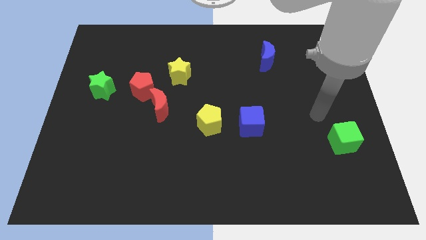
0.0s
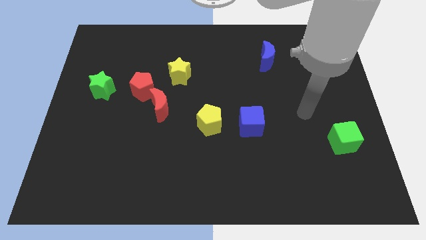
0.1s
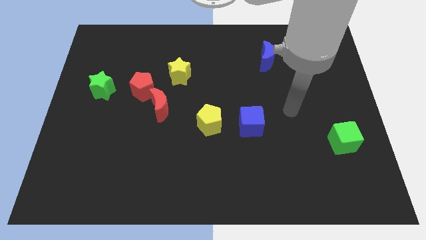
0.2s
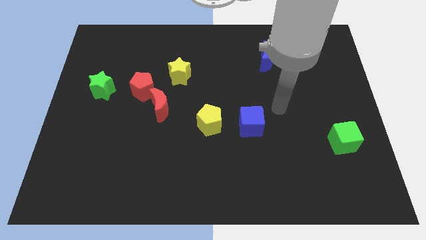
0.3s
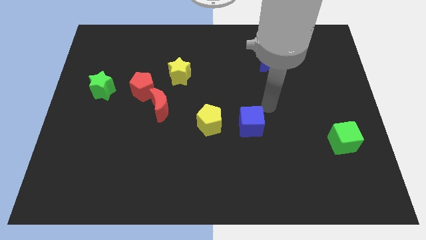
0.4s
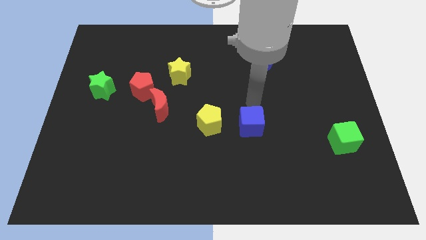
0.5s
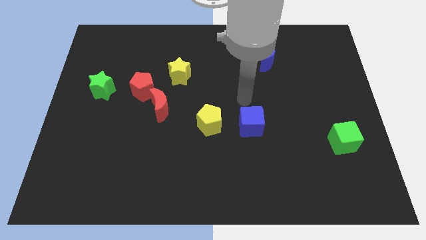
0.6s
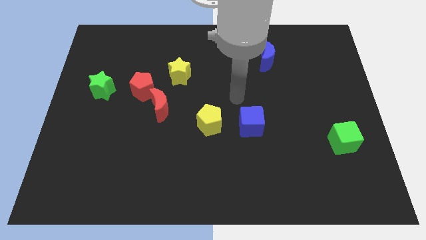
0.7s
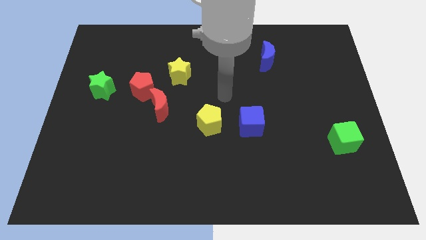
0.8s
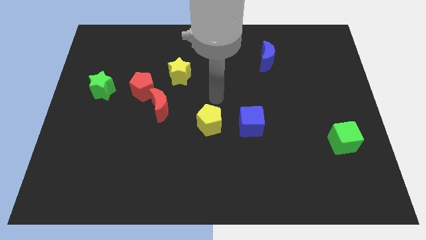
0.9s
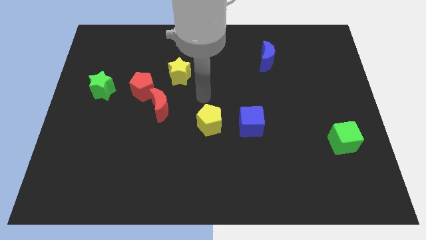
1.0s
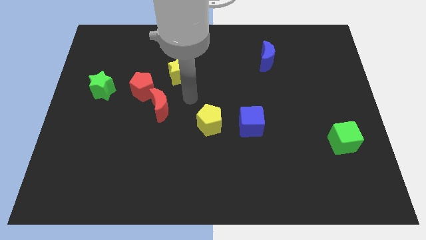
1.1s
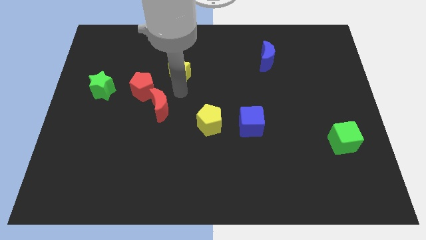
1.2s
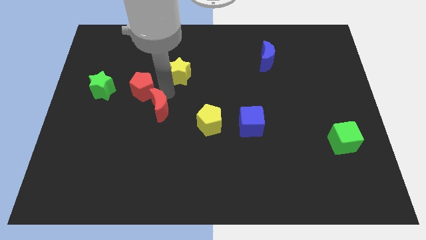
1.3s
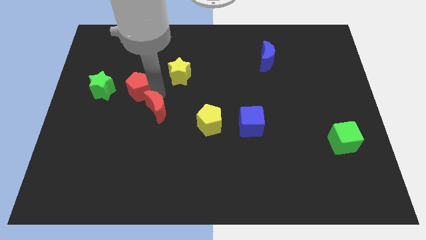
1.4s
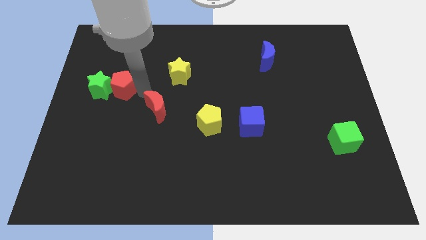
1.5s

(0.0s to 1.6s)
pull the red moon apart from the red pentagon

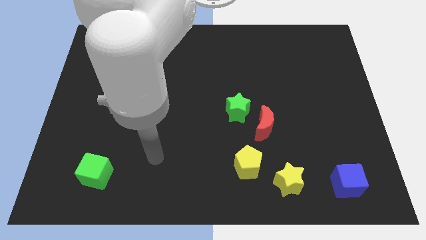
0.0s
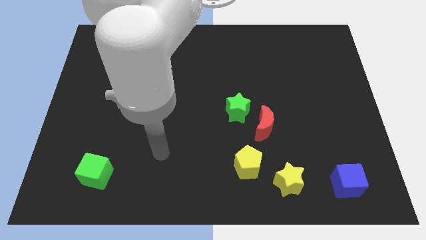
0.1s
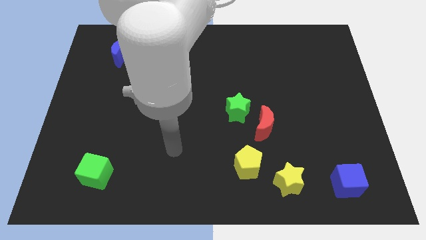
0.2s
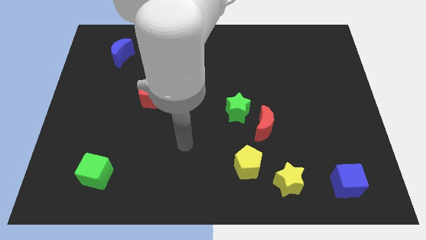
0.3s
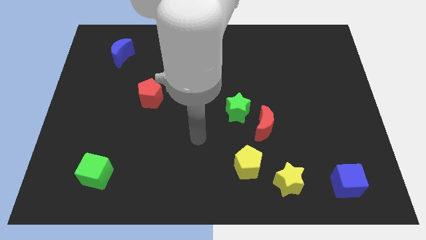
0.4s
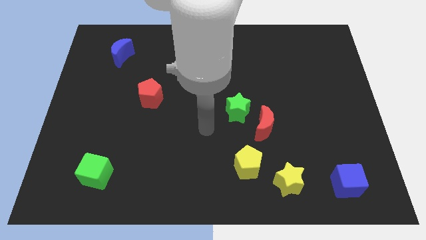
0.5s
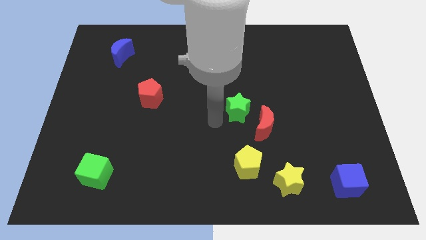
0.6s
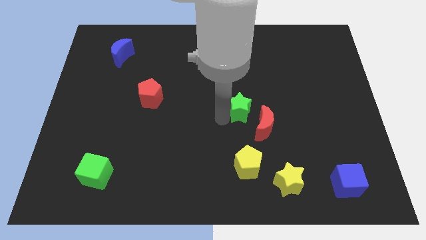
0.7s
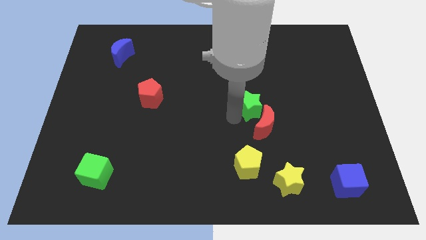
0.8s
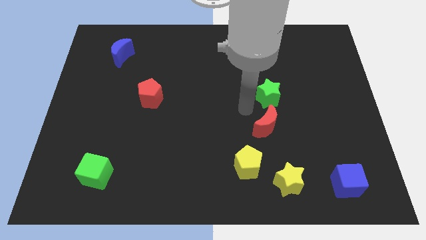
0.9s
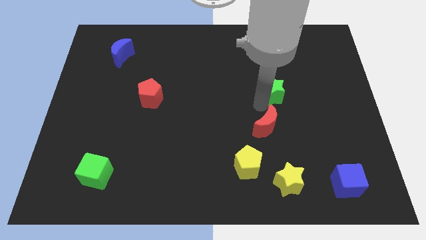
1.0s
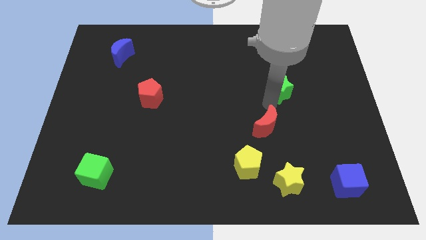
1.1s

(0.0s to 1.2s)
move the red moon away from the green star

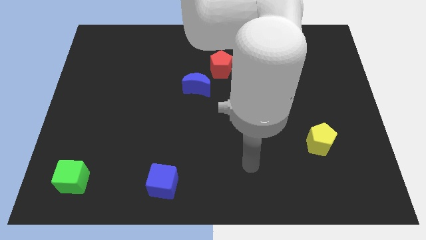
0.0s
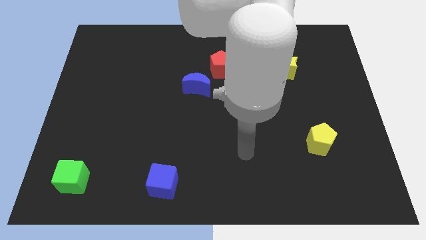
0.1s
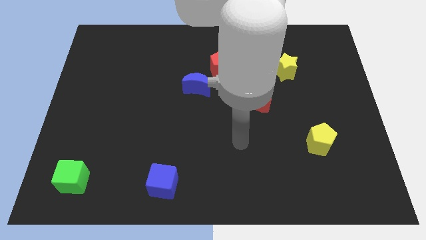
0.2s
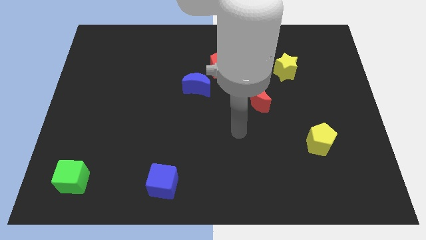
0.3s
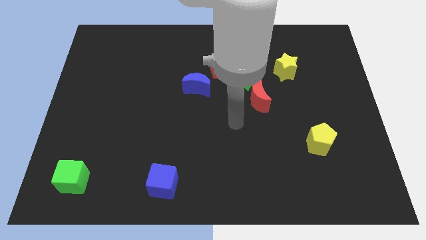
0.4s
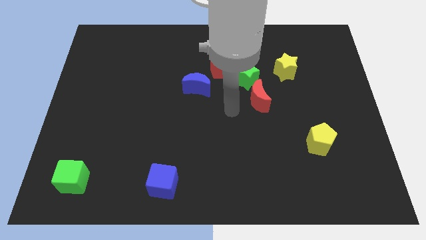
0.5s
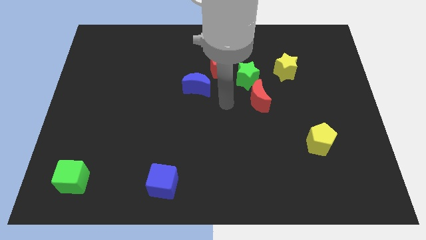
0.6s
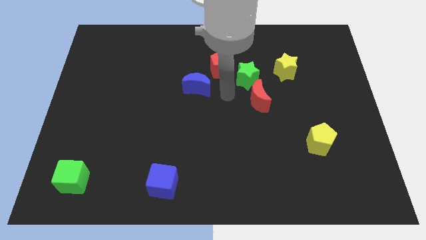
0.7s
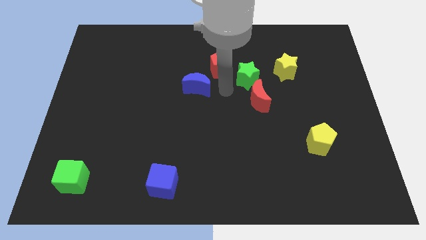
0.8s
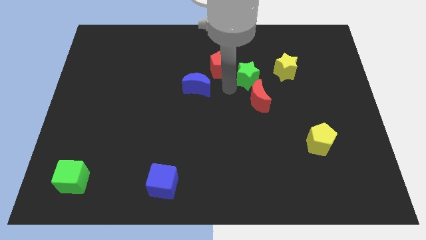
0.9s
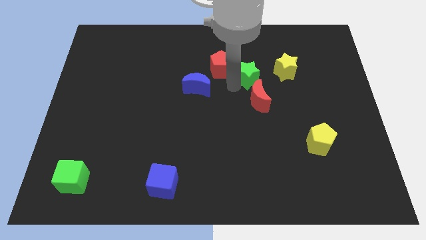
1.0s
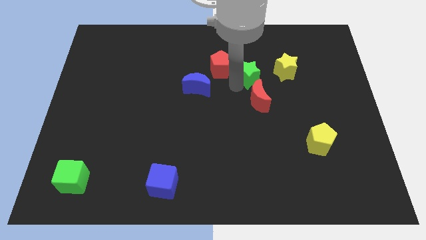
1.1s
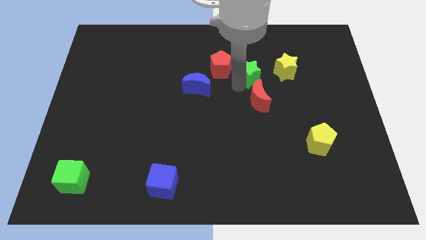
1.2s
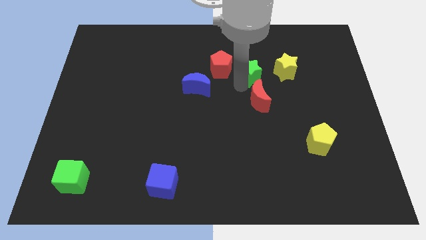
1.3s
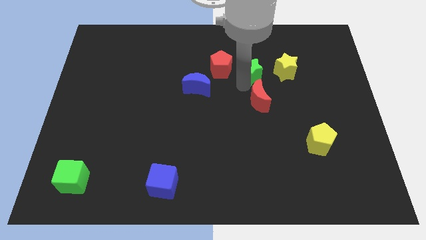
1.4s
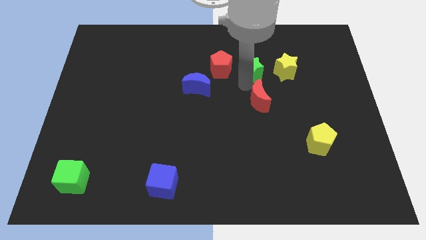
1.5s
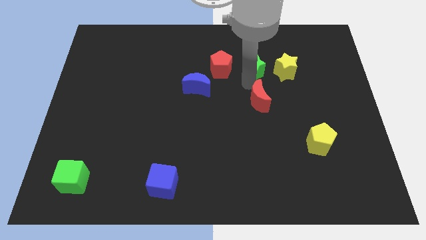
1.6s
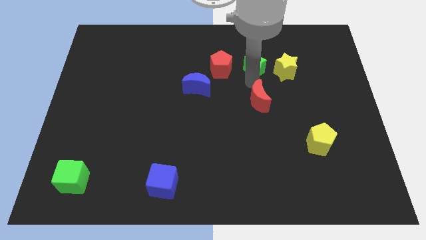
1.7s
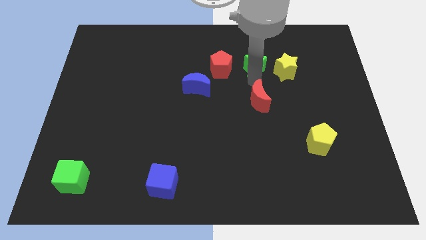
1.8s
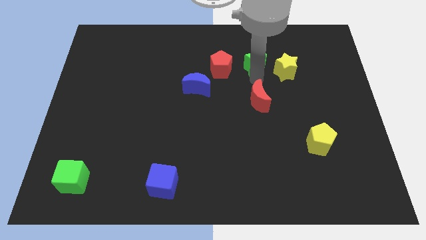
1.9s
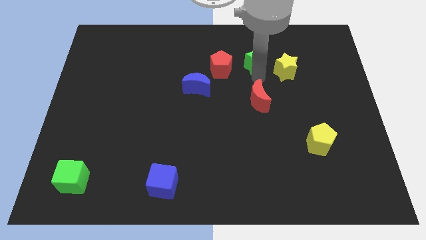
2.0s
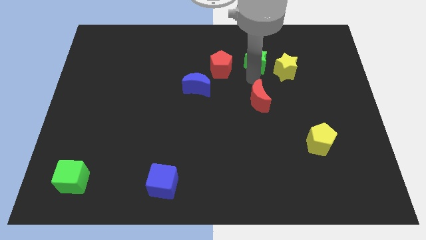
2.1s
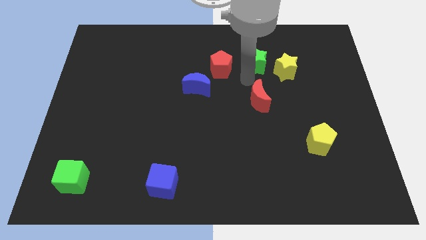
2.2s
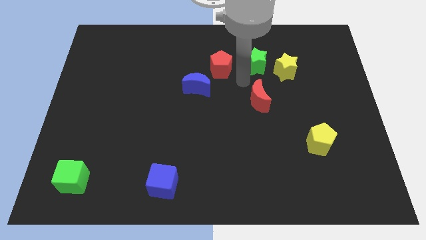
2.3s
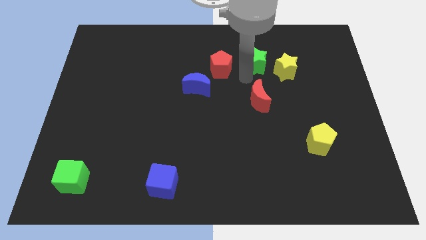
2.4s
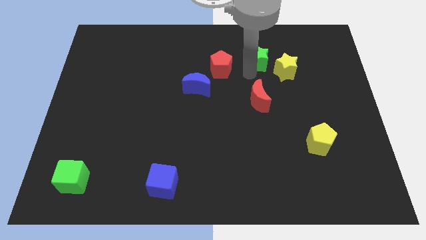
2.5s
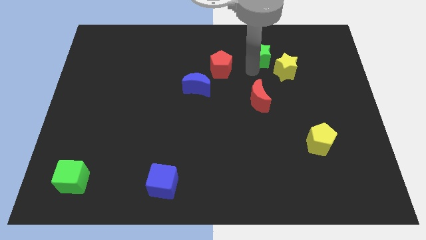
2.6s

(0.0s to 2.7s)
pull the green star apart from the red pentagon and red moon

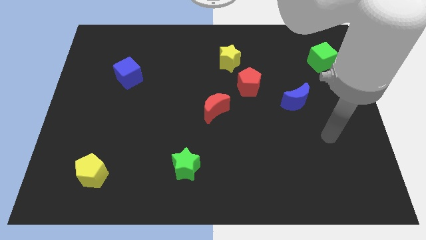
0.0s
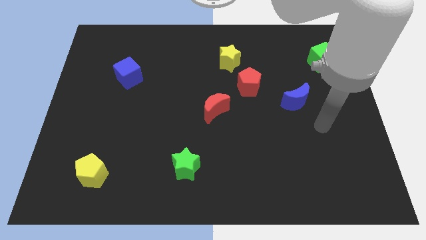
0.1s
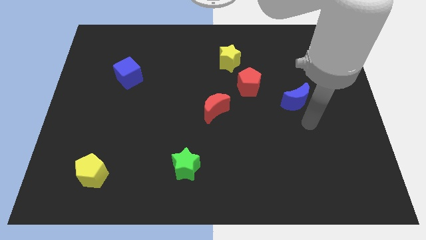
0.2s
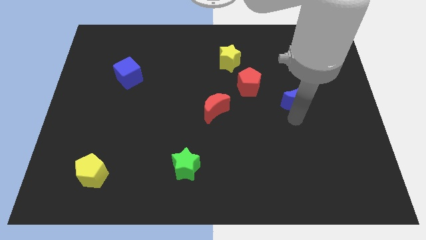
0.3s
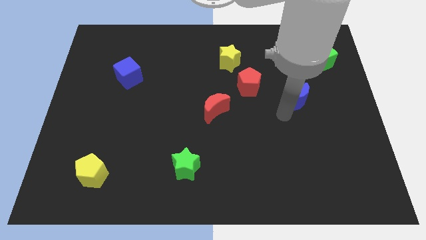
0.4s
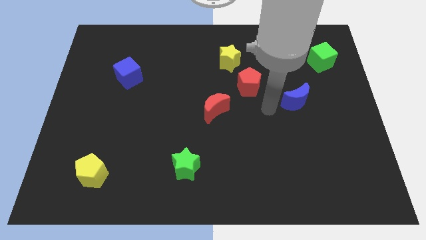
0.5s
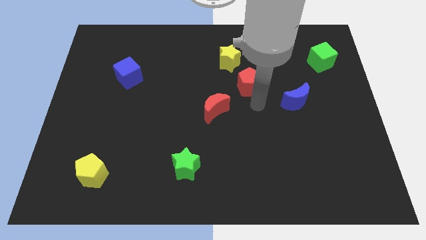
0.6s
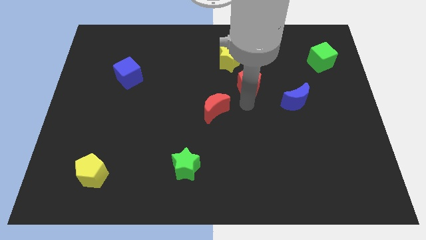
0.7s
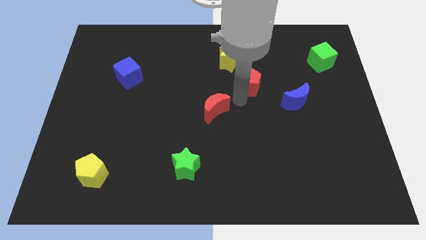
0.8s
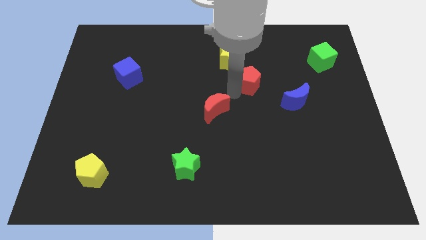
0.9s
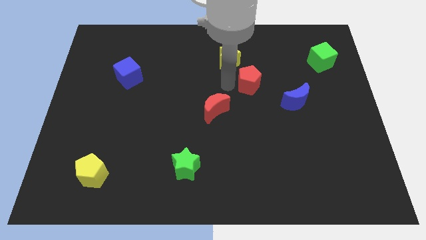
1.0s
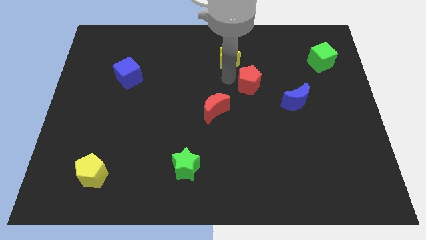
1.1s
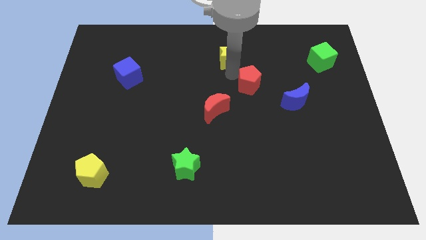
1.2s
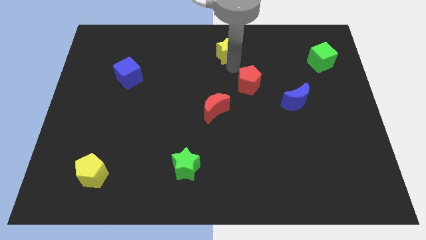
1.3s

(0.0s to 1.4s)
separate the red pentagon from the yellow star

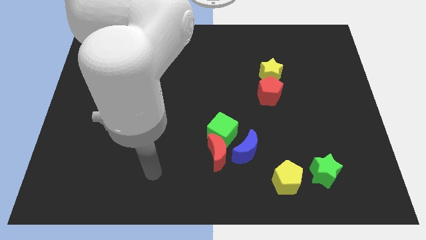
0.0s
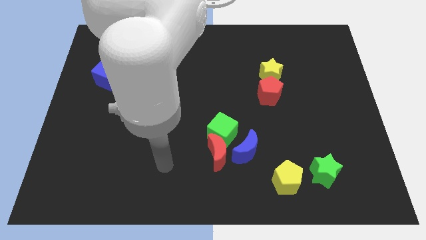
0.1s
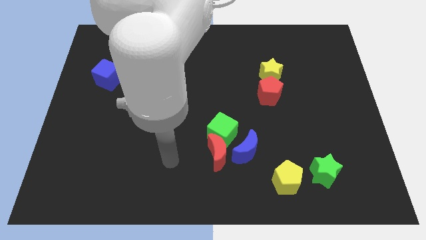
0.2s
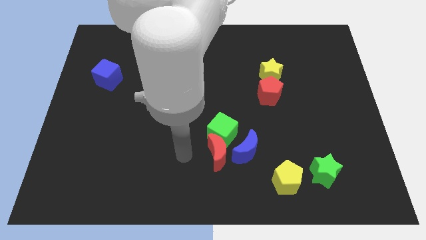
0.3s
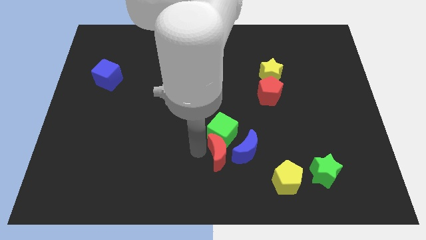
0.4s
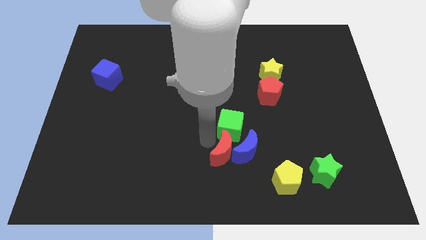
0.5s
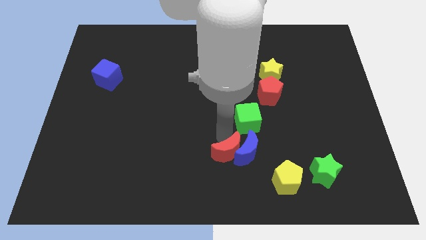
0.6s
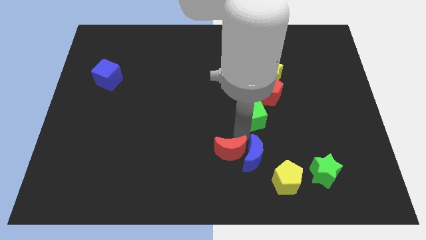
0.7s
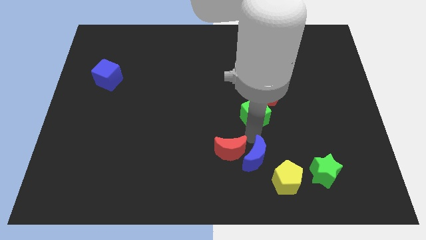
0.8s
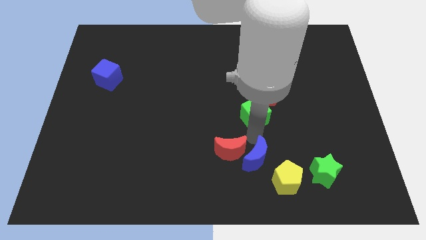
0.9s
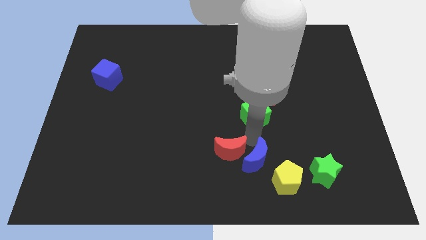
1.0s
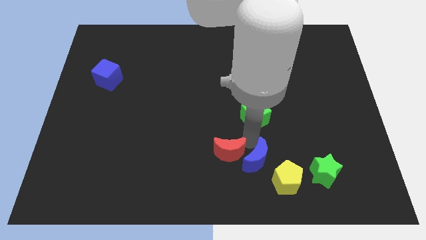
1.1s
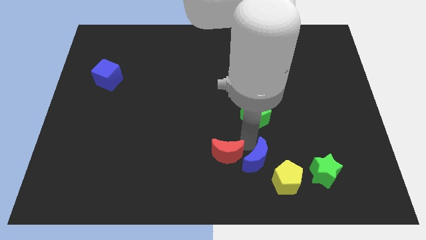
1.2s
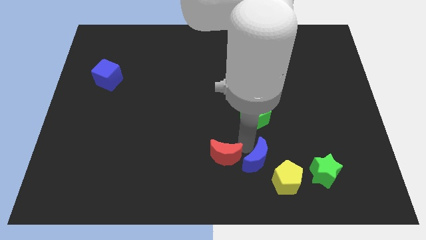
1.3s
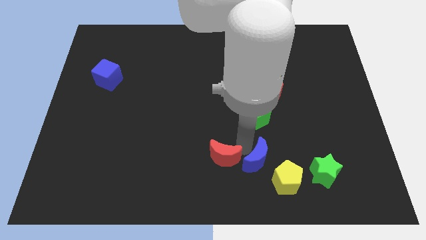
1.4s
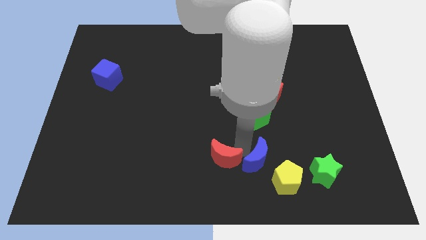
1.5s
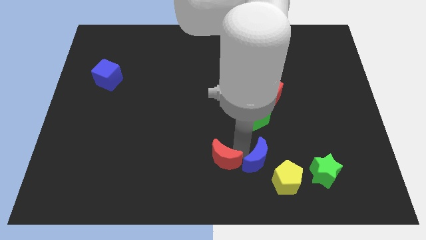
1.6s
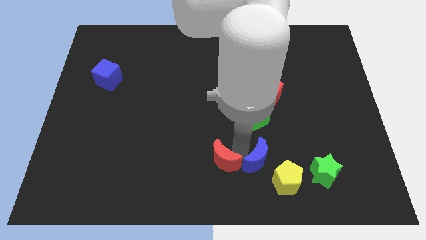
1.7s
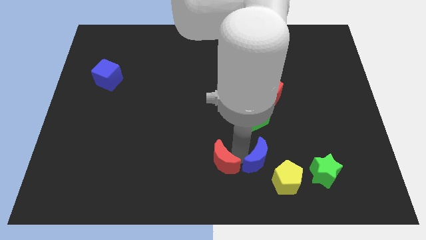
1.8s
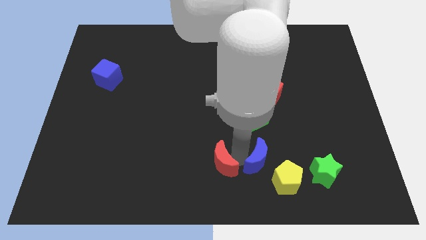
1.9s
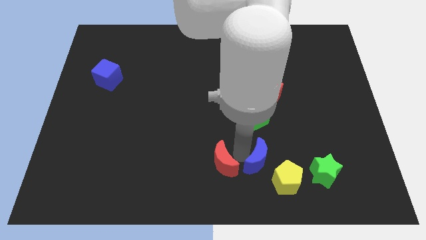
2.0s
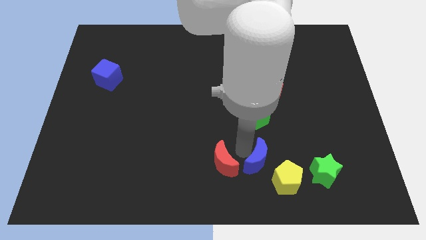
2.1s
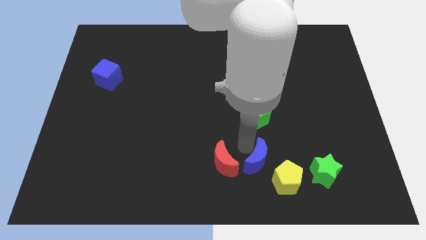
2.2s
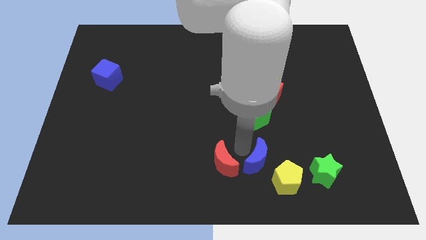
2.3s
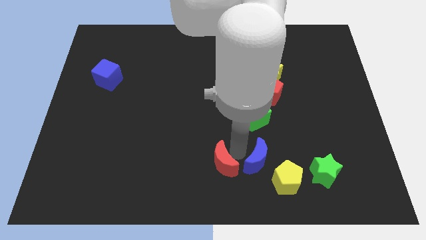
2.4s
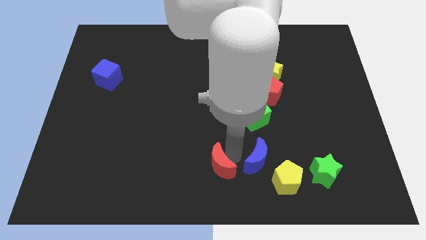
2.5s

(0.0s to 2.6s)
separate the red moon from the green cube and blue moon

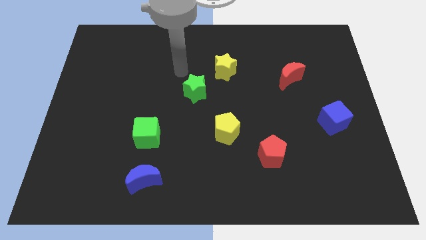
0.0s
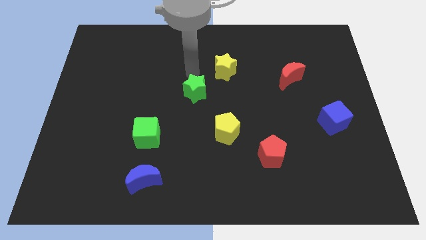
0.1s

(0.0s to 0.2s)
separate the green star from the yellow star
